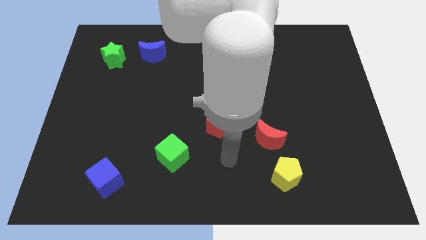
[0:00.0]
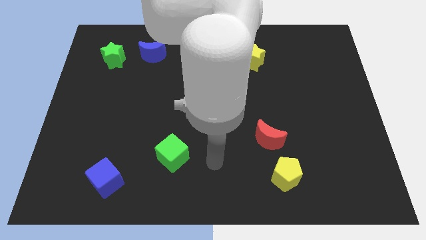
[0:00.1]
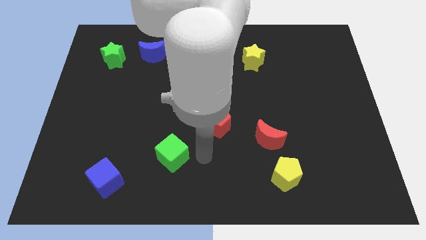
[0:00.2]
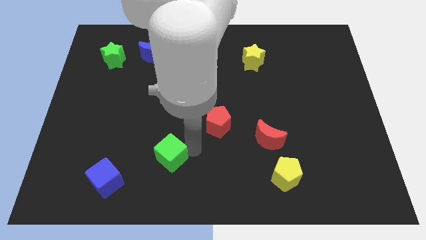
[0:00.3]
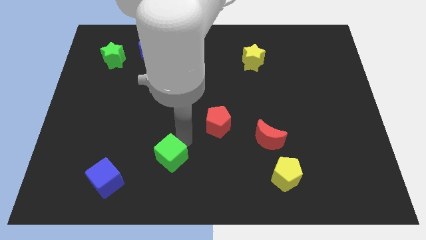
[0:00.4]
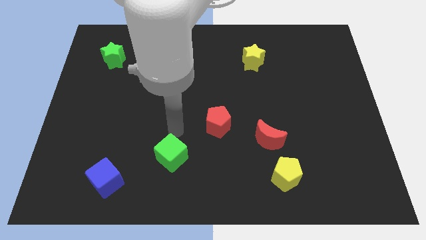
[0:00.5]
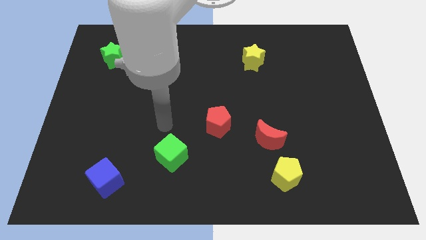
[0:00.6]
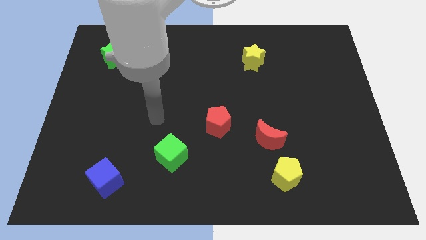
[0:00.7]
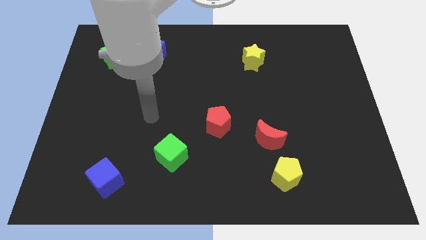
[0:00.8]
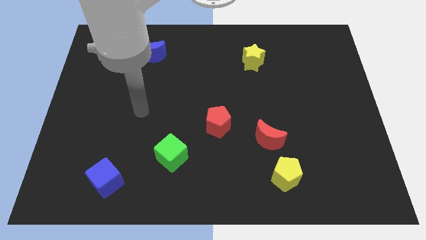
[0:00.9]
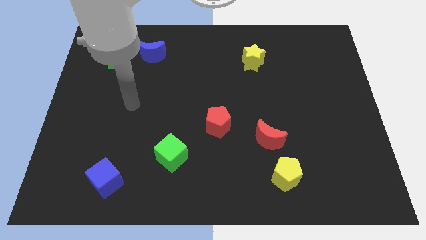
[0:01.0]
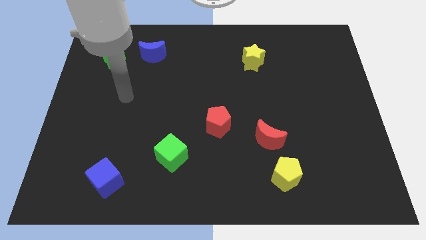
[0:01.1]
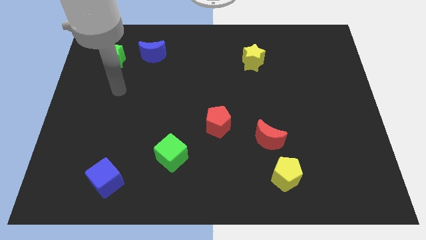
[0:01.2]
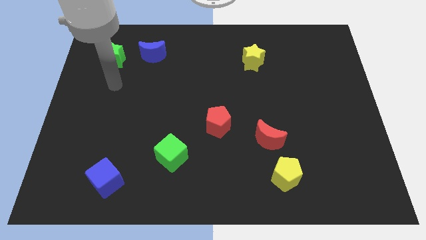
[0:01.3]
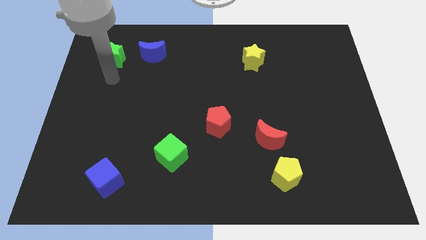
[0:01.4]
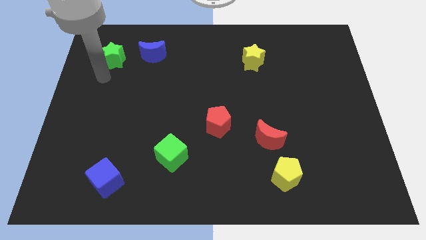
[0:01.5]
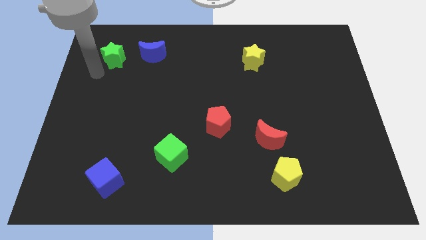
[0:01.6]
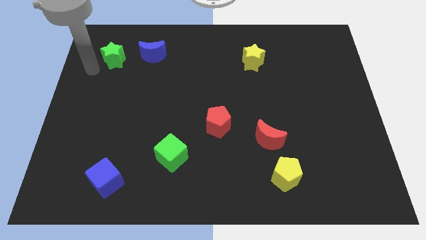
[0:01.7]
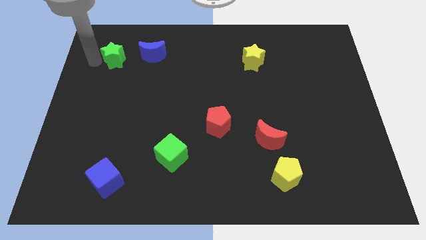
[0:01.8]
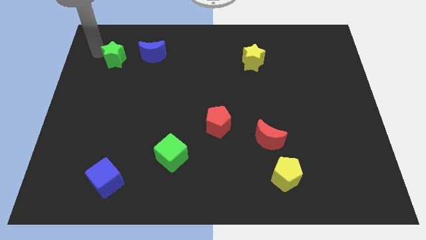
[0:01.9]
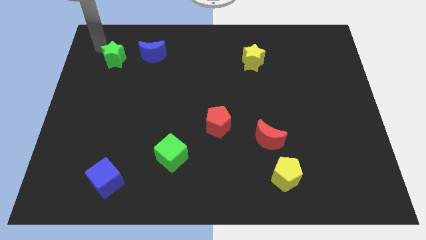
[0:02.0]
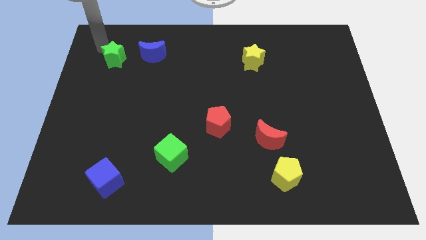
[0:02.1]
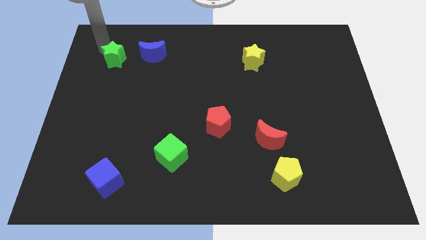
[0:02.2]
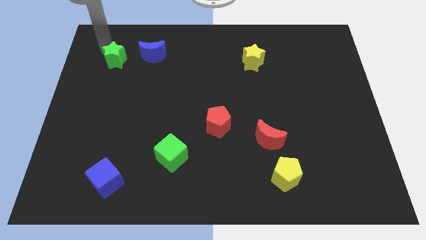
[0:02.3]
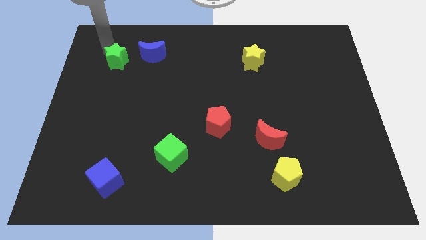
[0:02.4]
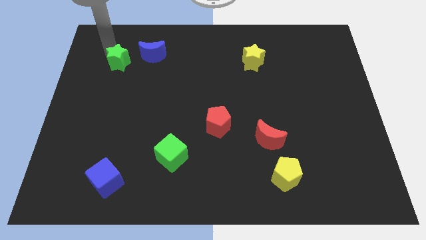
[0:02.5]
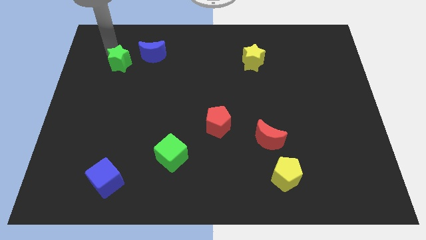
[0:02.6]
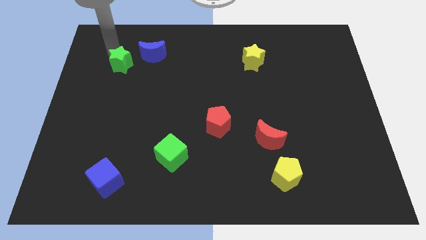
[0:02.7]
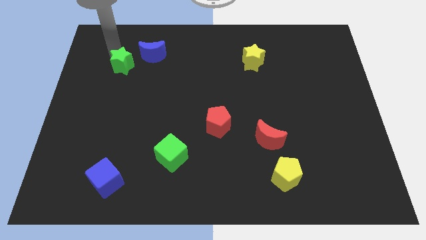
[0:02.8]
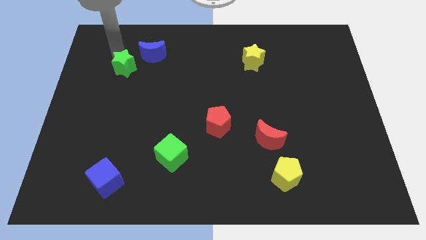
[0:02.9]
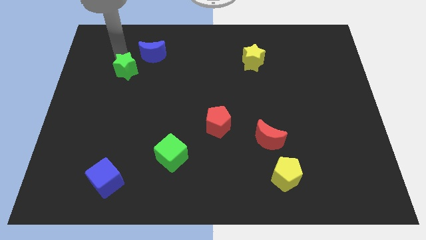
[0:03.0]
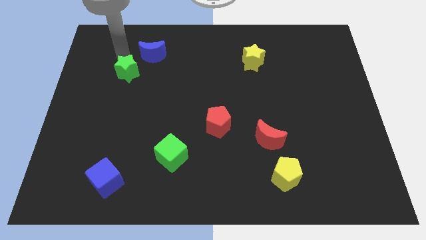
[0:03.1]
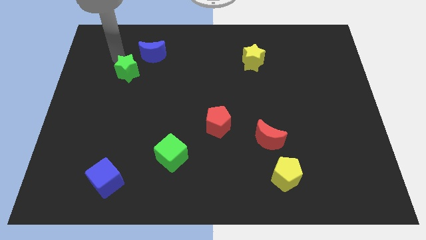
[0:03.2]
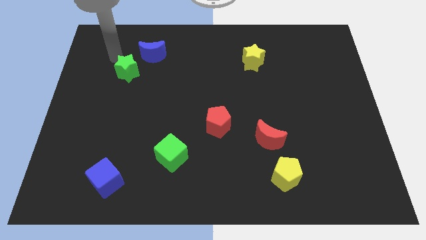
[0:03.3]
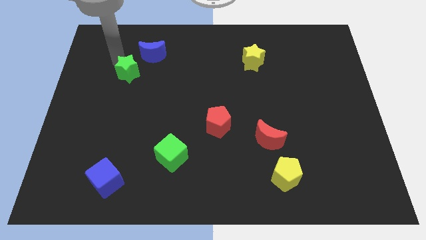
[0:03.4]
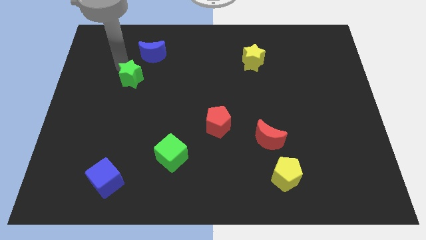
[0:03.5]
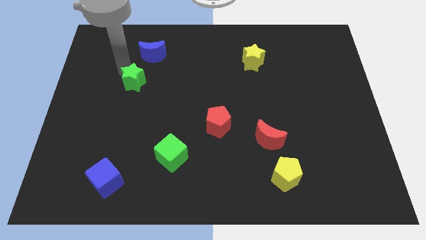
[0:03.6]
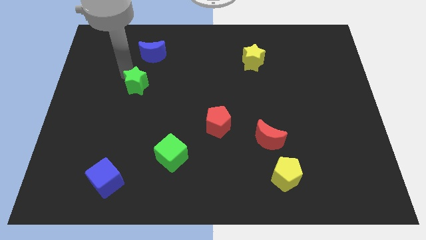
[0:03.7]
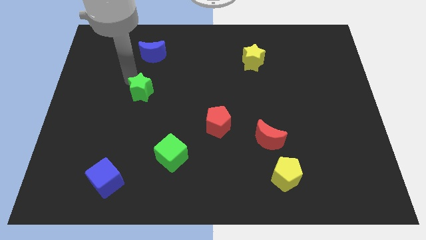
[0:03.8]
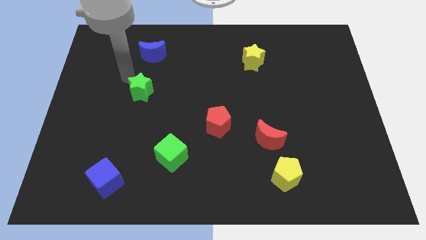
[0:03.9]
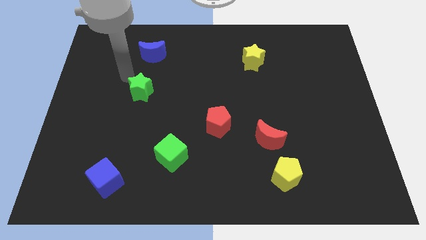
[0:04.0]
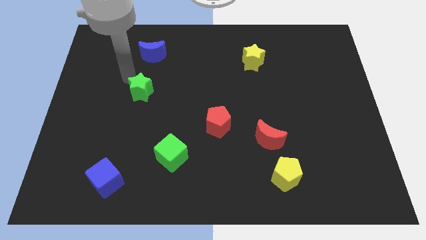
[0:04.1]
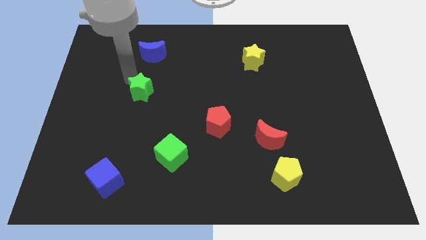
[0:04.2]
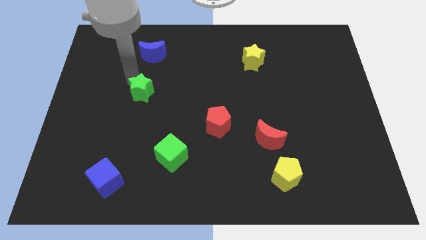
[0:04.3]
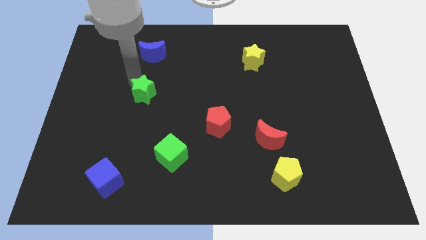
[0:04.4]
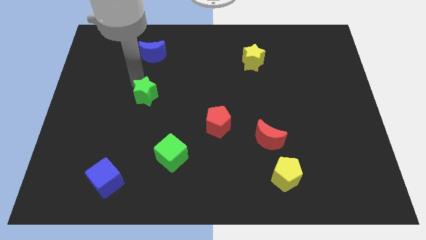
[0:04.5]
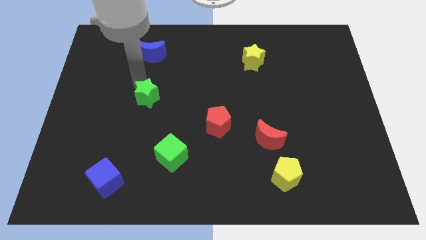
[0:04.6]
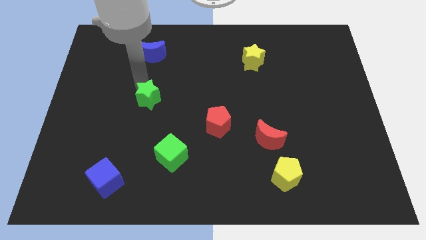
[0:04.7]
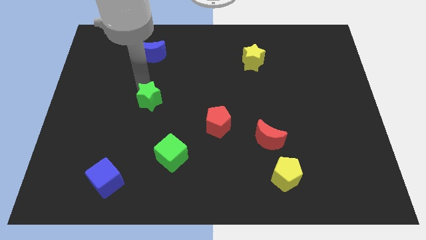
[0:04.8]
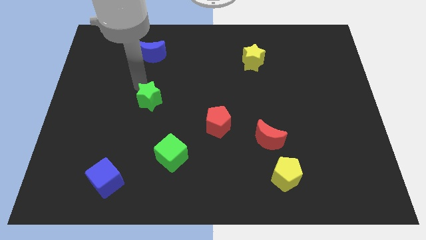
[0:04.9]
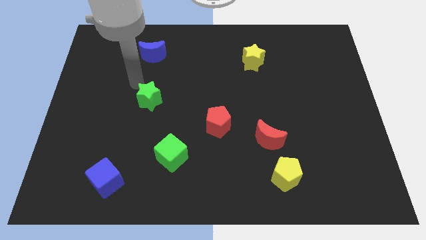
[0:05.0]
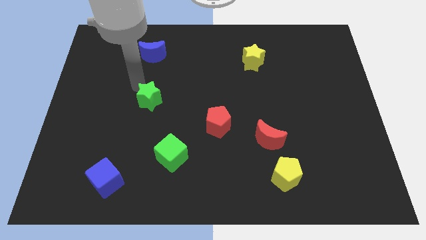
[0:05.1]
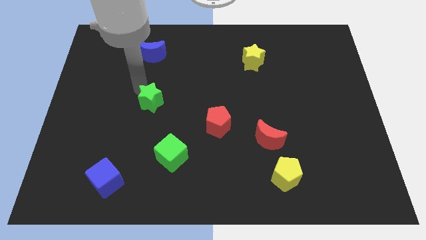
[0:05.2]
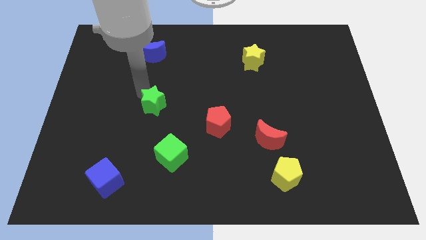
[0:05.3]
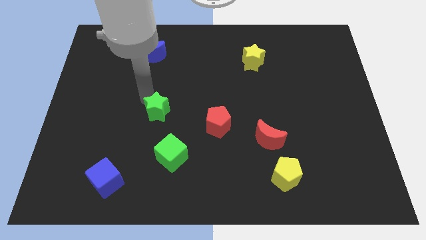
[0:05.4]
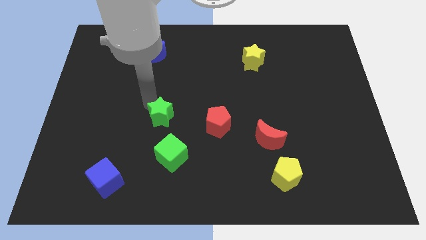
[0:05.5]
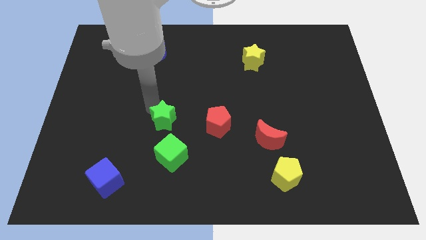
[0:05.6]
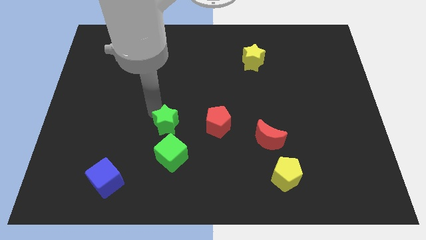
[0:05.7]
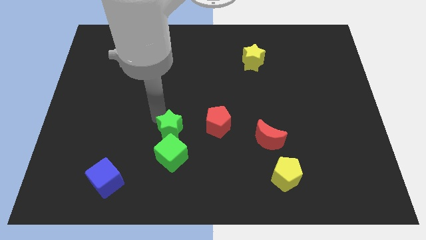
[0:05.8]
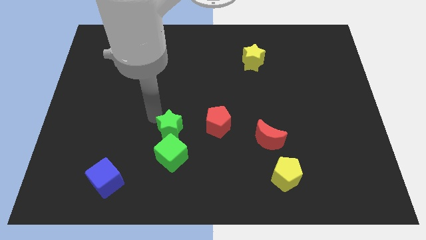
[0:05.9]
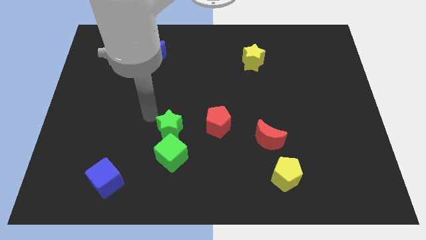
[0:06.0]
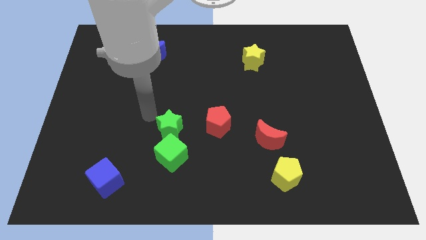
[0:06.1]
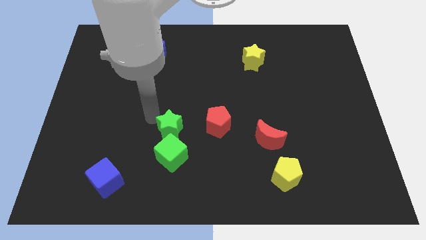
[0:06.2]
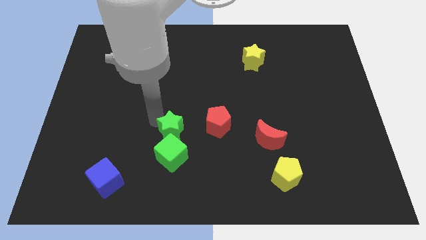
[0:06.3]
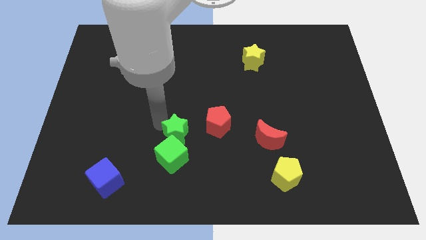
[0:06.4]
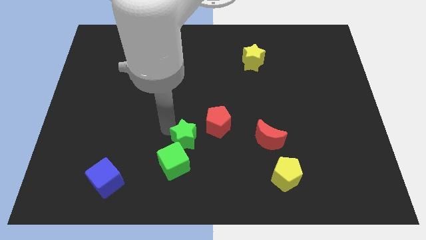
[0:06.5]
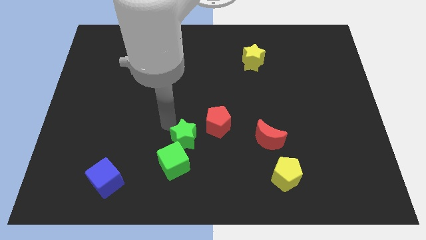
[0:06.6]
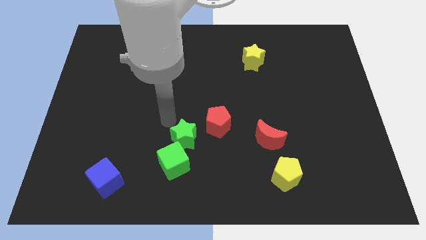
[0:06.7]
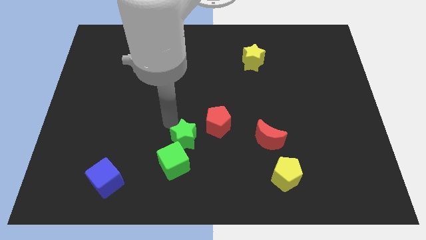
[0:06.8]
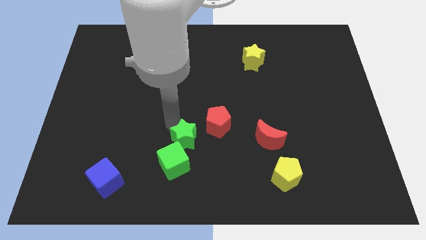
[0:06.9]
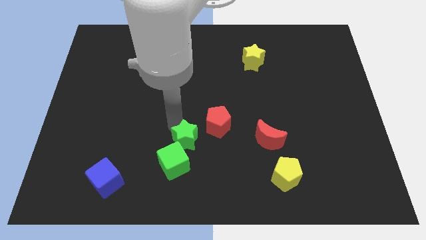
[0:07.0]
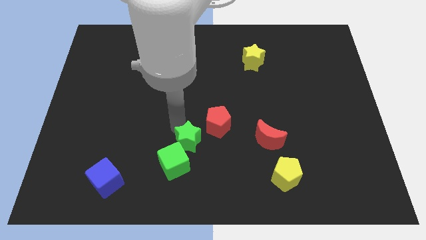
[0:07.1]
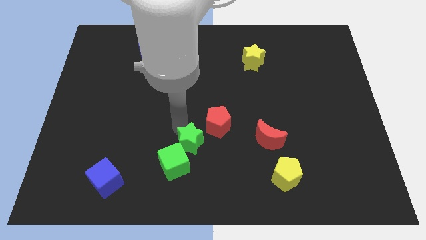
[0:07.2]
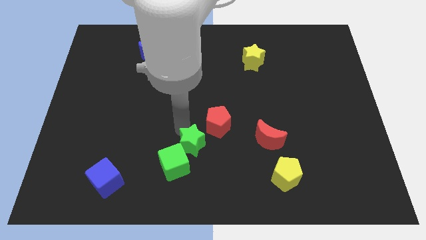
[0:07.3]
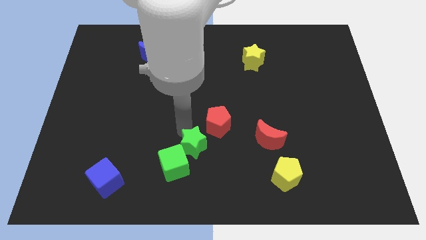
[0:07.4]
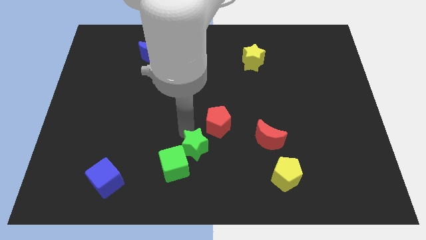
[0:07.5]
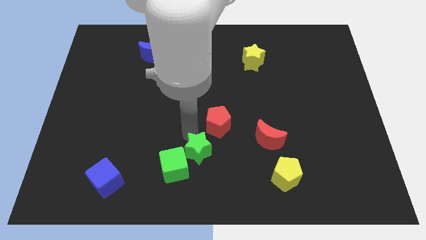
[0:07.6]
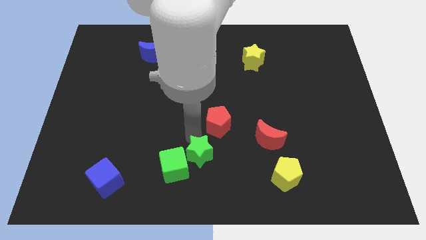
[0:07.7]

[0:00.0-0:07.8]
move the green star to the bottom
